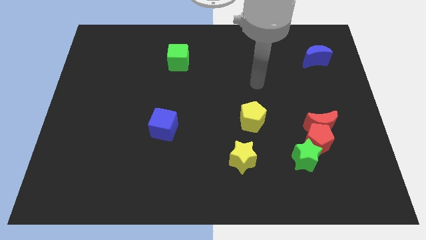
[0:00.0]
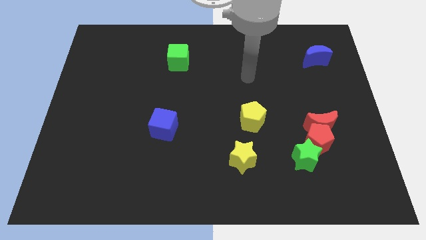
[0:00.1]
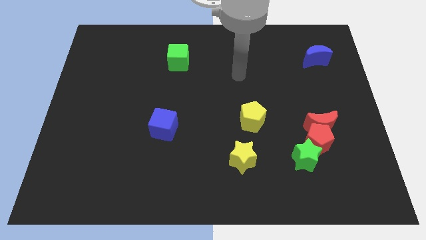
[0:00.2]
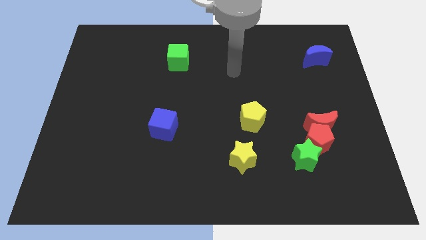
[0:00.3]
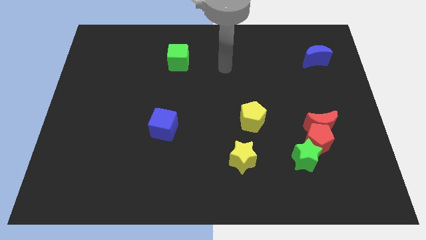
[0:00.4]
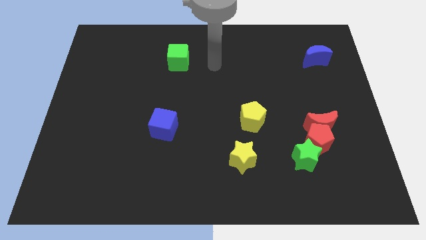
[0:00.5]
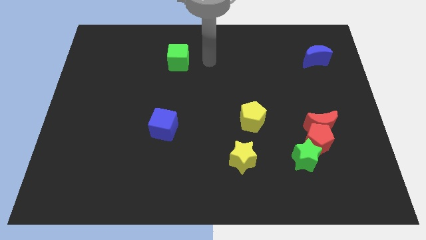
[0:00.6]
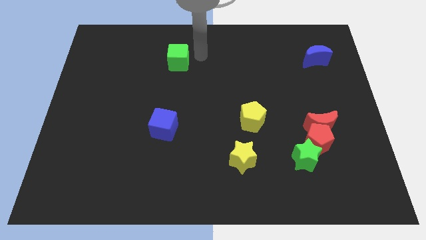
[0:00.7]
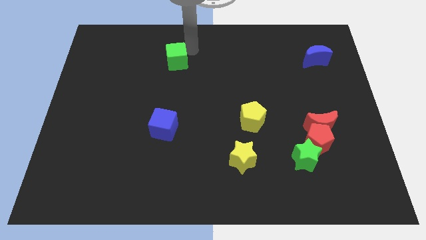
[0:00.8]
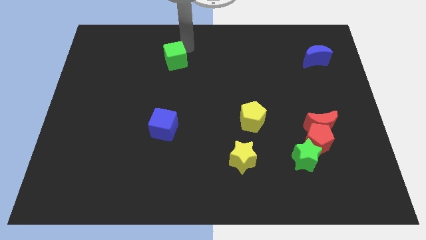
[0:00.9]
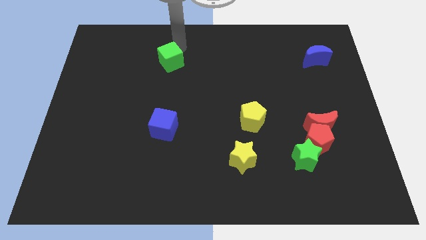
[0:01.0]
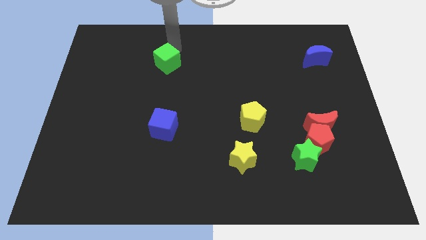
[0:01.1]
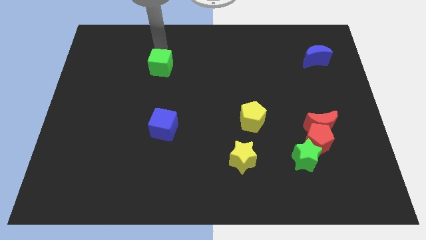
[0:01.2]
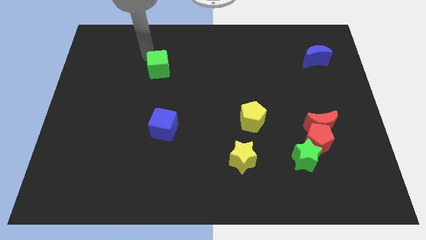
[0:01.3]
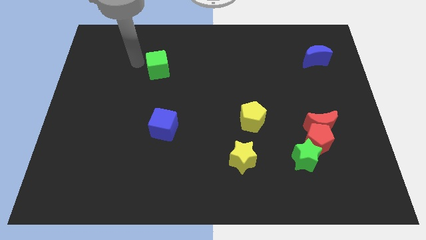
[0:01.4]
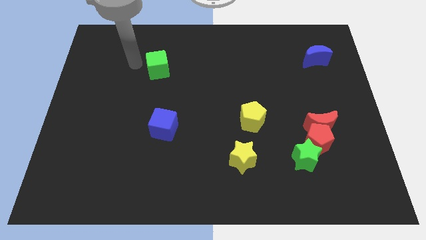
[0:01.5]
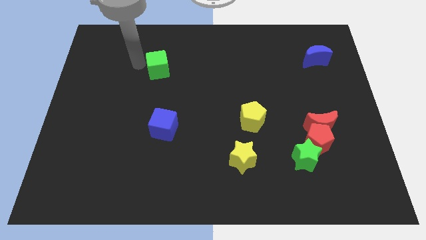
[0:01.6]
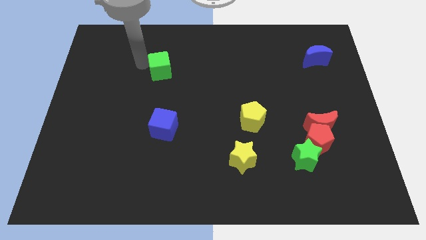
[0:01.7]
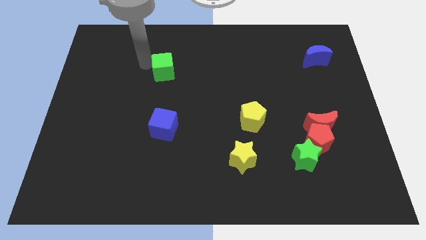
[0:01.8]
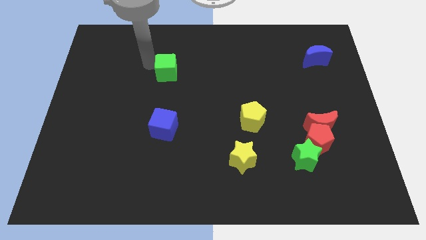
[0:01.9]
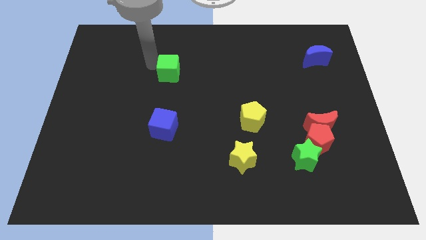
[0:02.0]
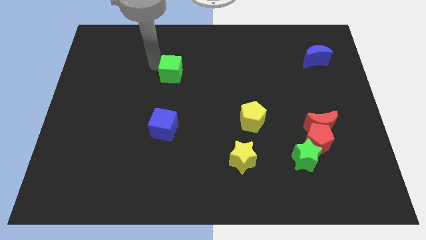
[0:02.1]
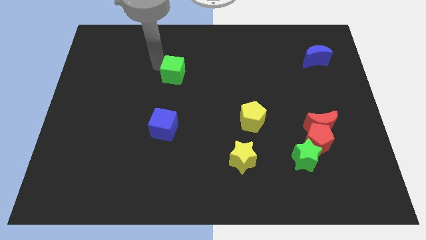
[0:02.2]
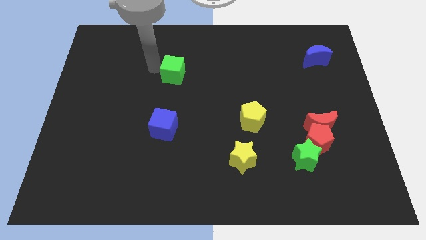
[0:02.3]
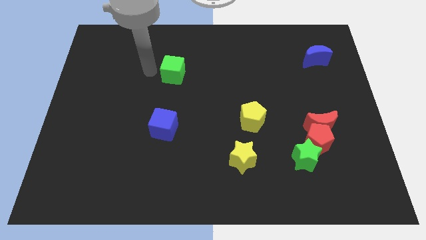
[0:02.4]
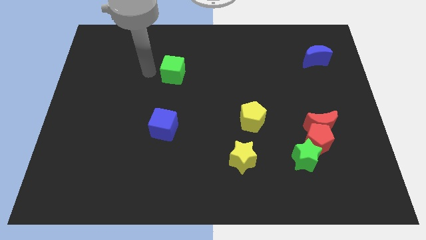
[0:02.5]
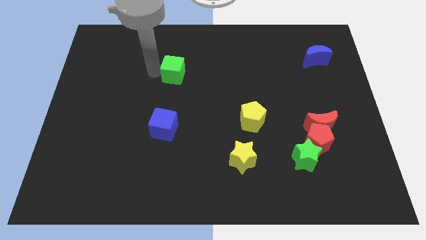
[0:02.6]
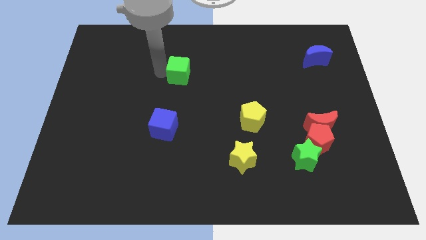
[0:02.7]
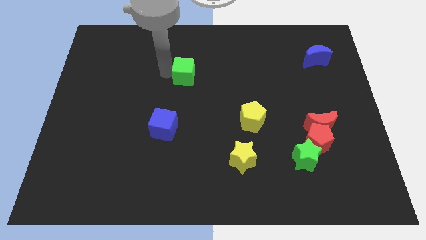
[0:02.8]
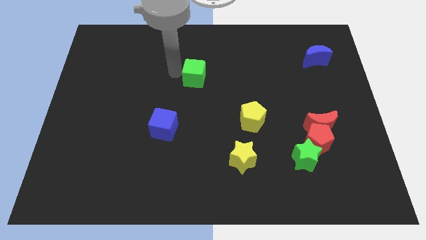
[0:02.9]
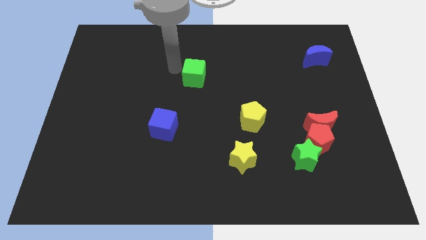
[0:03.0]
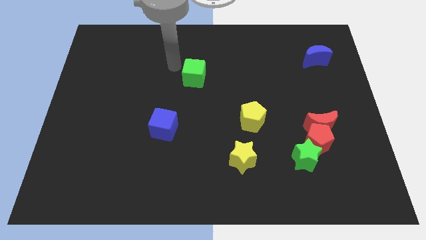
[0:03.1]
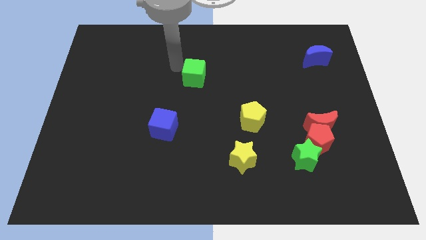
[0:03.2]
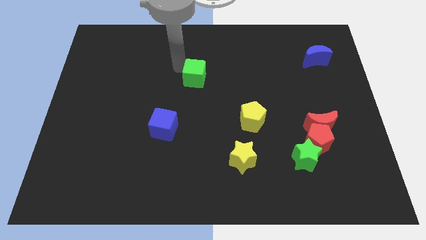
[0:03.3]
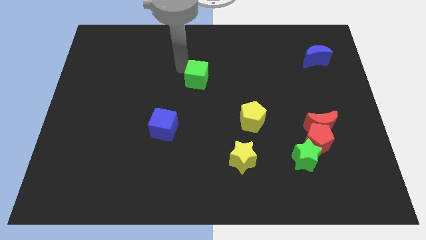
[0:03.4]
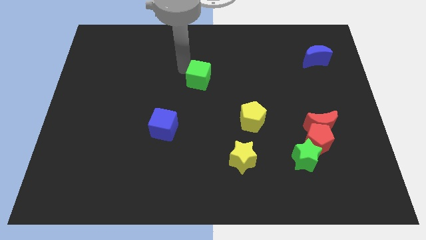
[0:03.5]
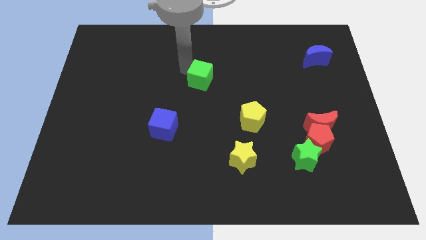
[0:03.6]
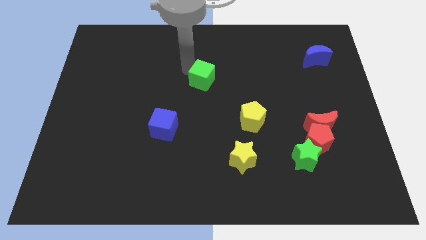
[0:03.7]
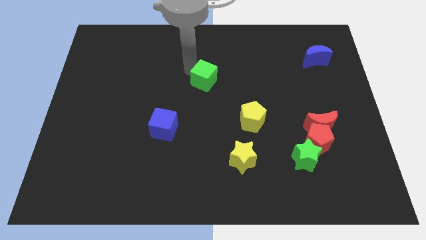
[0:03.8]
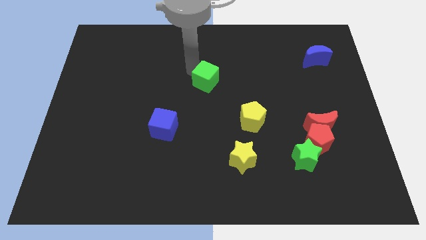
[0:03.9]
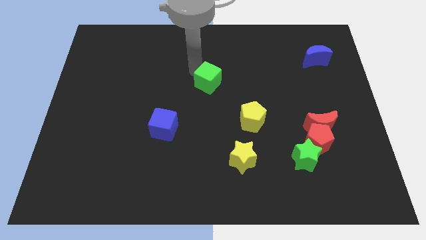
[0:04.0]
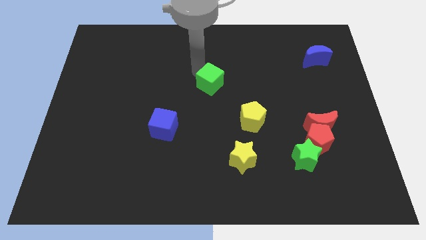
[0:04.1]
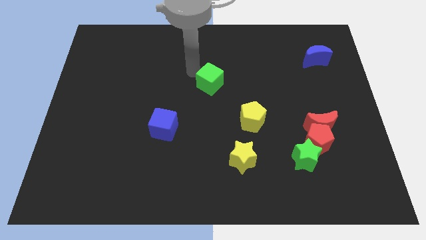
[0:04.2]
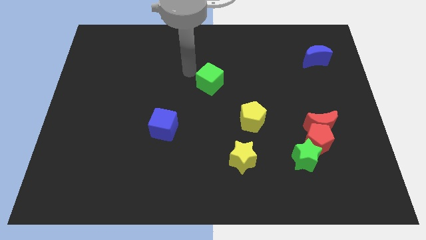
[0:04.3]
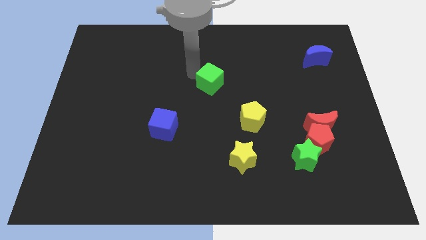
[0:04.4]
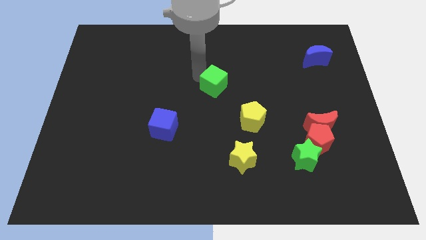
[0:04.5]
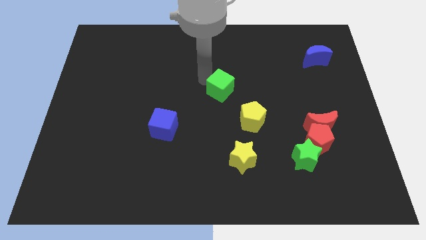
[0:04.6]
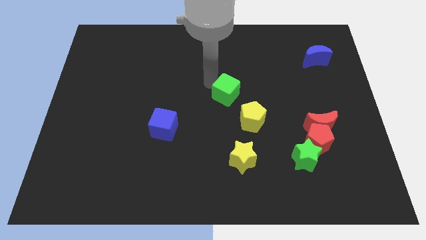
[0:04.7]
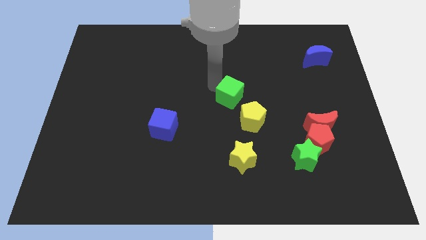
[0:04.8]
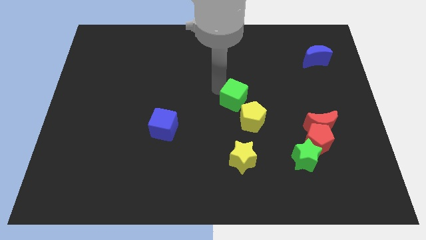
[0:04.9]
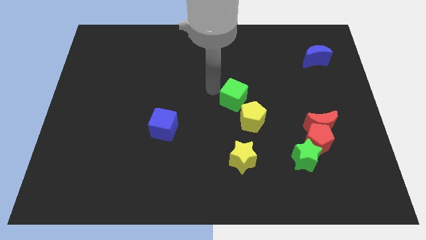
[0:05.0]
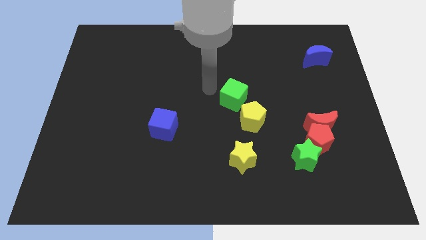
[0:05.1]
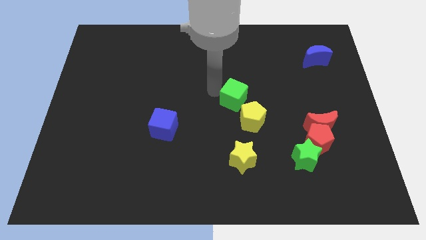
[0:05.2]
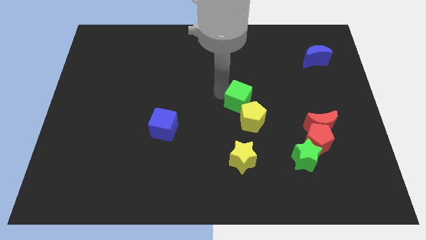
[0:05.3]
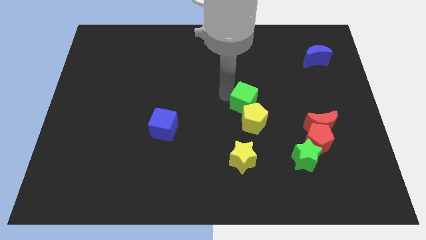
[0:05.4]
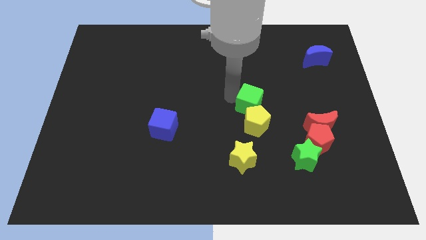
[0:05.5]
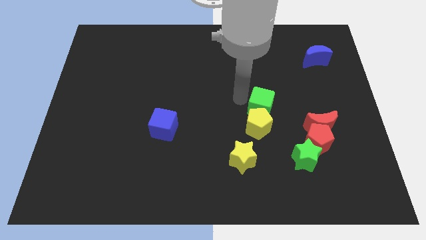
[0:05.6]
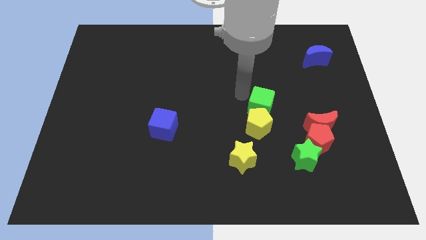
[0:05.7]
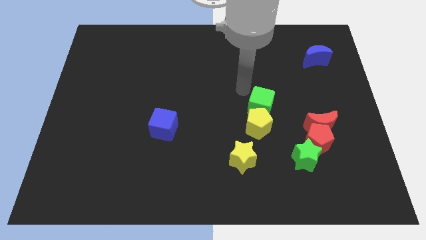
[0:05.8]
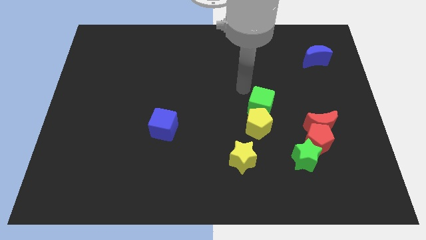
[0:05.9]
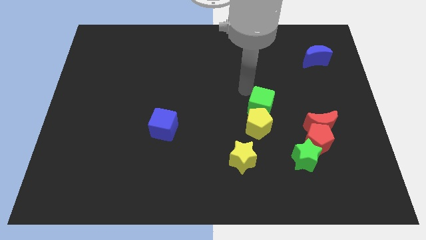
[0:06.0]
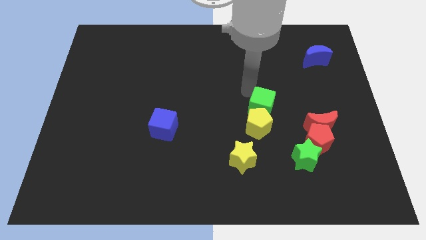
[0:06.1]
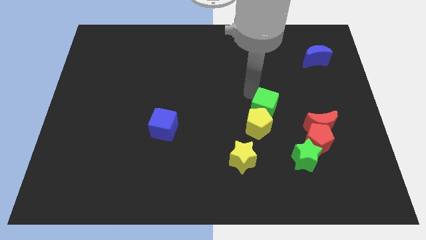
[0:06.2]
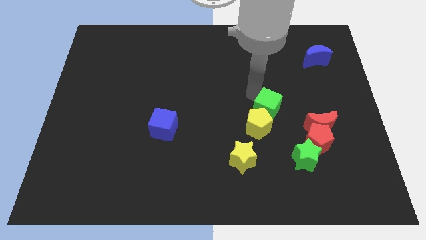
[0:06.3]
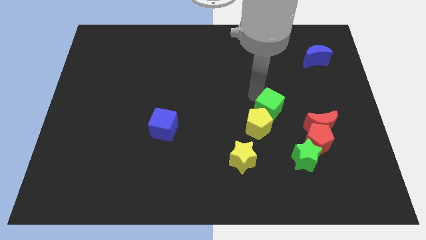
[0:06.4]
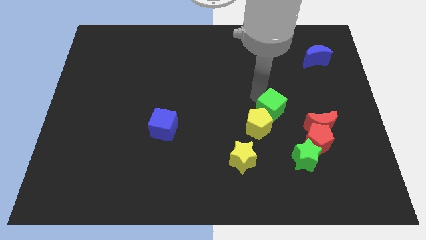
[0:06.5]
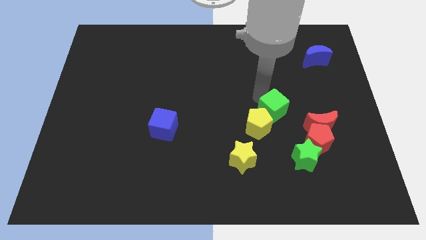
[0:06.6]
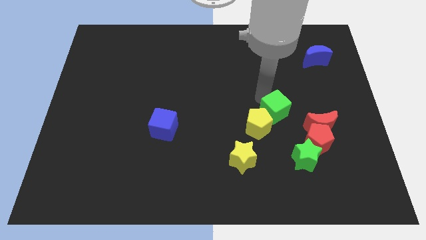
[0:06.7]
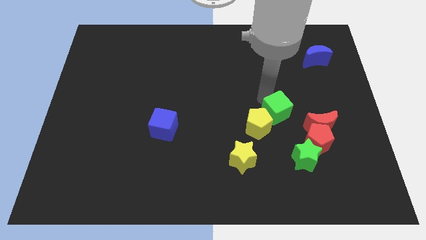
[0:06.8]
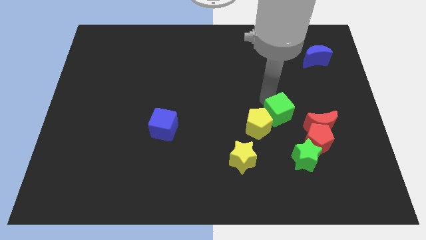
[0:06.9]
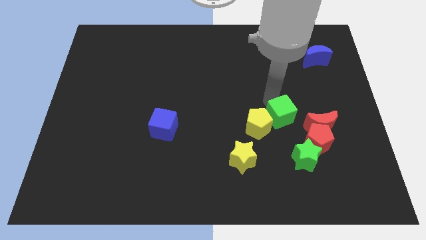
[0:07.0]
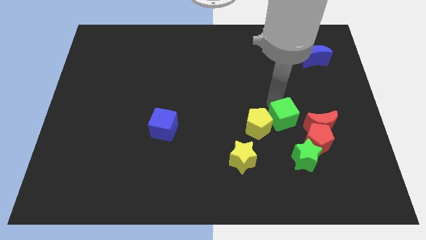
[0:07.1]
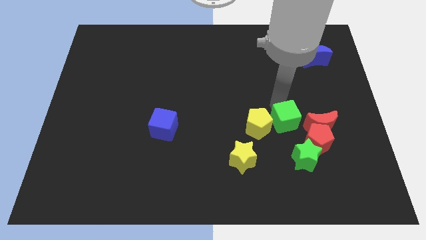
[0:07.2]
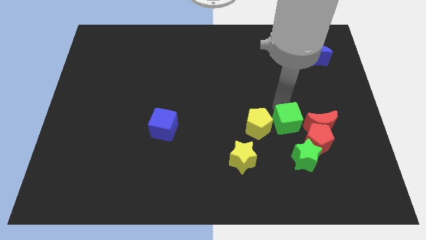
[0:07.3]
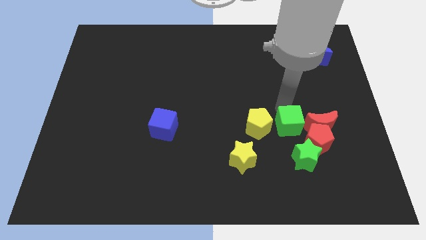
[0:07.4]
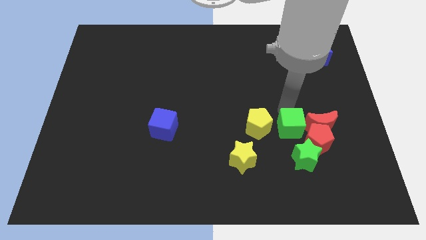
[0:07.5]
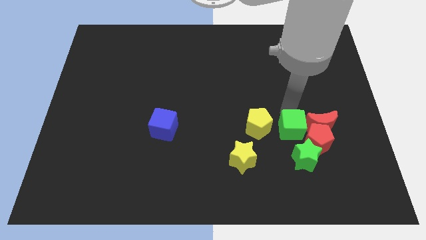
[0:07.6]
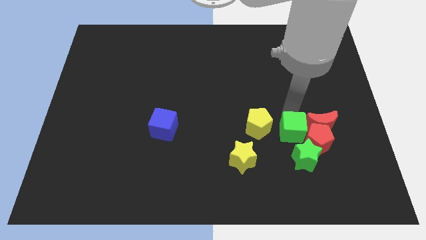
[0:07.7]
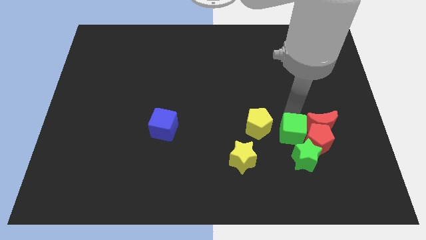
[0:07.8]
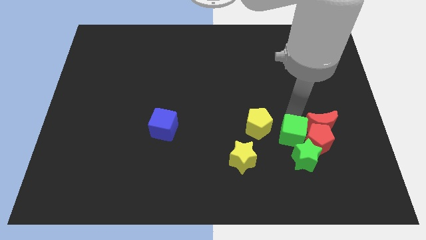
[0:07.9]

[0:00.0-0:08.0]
slide the green cube towards the green star
